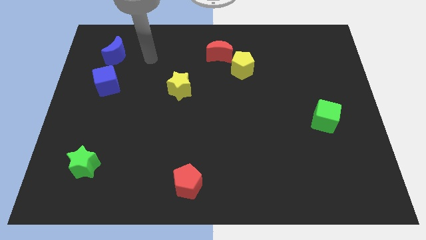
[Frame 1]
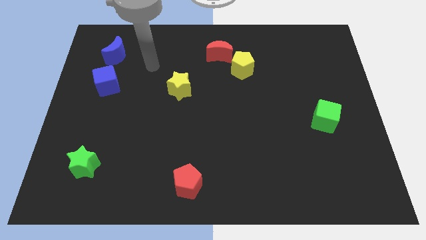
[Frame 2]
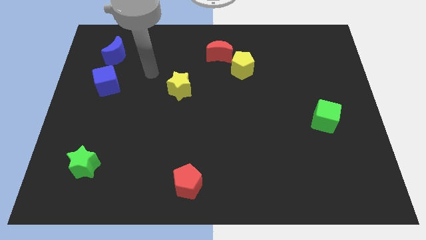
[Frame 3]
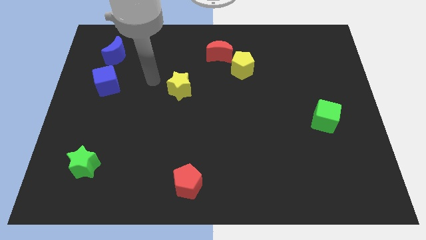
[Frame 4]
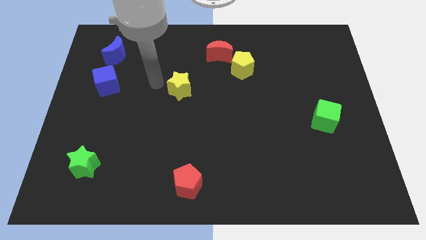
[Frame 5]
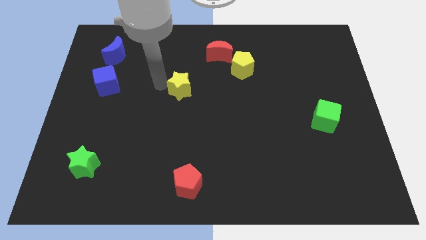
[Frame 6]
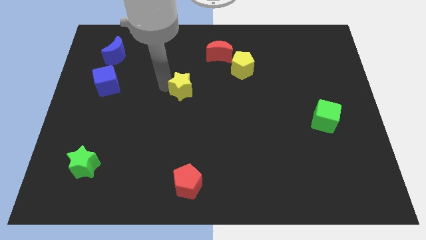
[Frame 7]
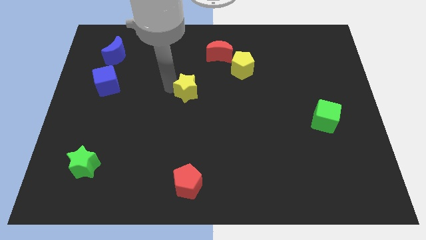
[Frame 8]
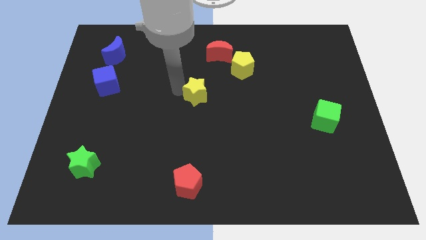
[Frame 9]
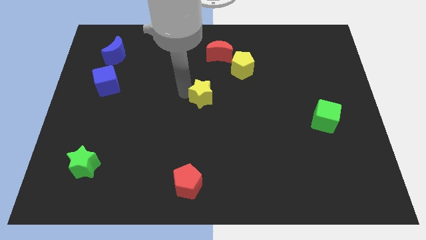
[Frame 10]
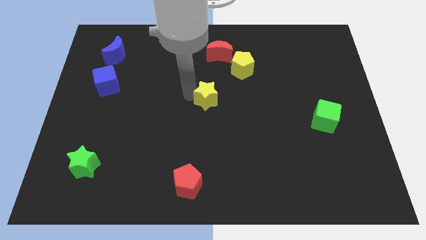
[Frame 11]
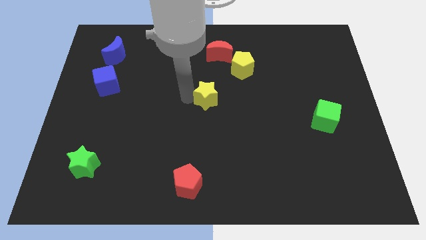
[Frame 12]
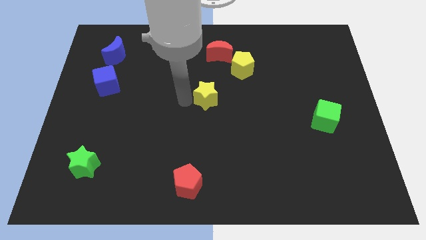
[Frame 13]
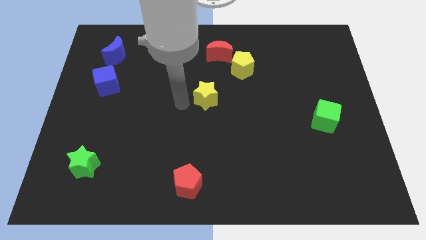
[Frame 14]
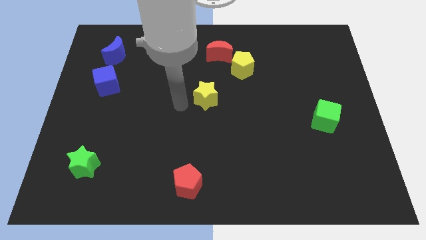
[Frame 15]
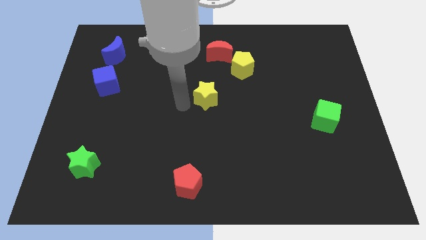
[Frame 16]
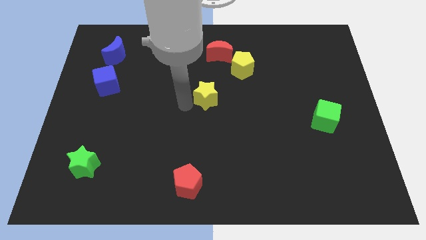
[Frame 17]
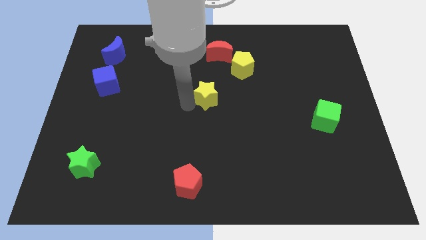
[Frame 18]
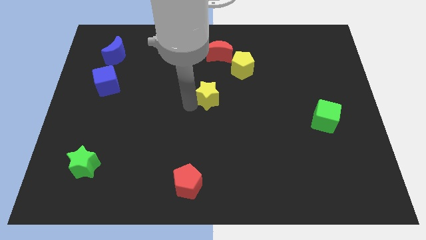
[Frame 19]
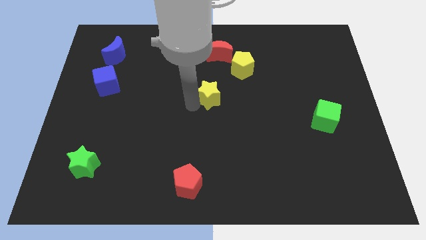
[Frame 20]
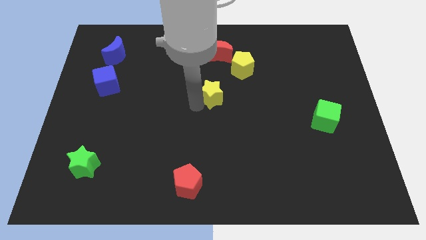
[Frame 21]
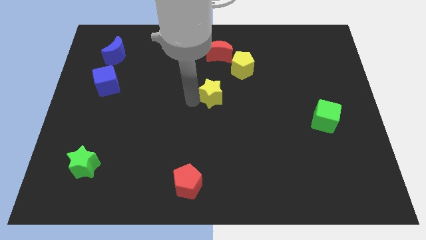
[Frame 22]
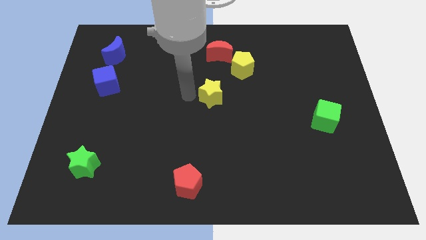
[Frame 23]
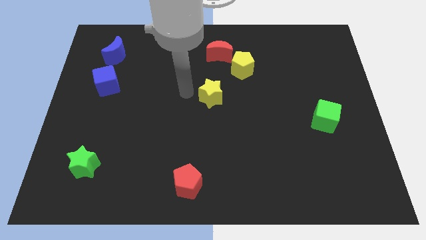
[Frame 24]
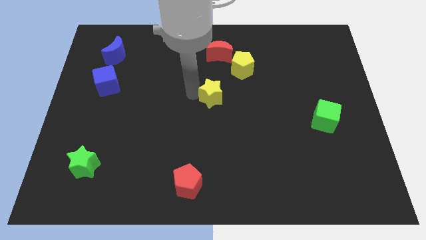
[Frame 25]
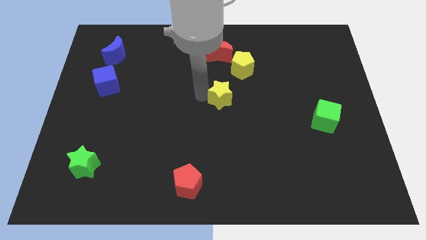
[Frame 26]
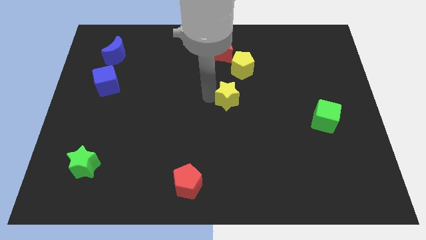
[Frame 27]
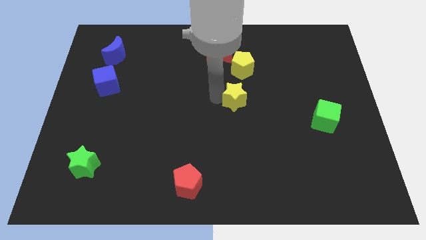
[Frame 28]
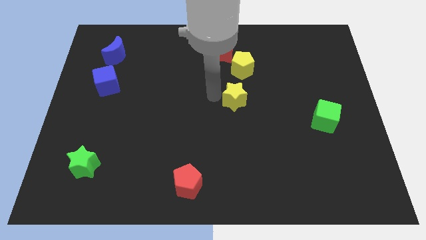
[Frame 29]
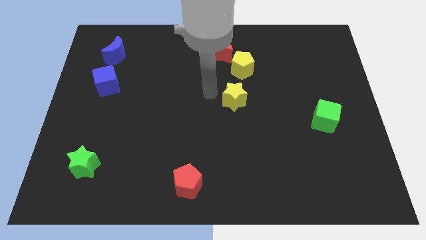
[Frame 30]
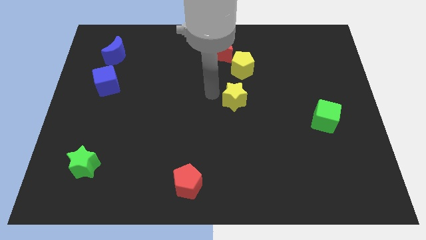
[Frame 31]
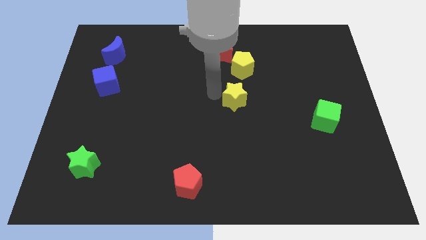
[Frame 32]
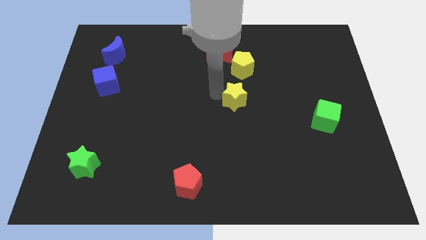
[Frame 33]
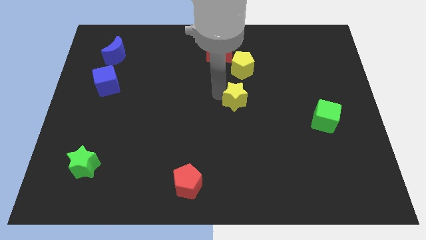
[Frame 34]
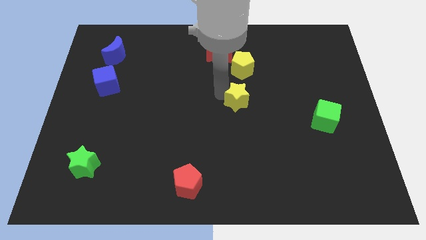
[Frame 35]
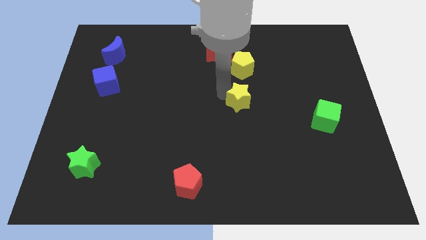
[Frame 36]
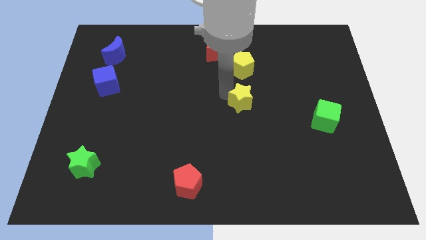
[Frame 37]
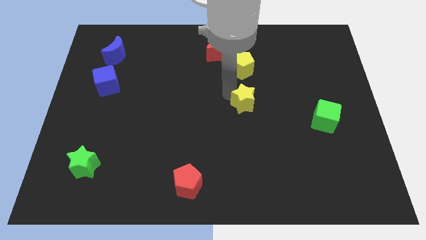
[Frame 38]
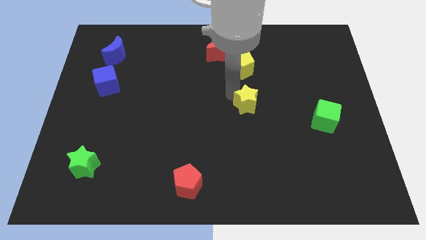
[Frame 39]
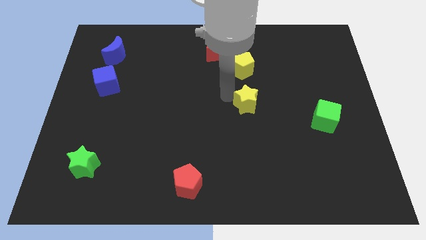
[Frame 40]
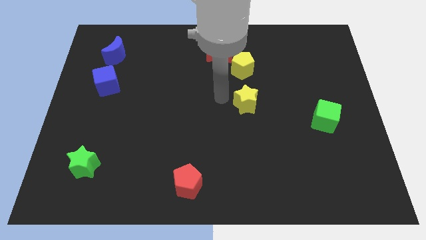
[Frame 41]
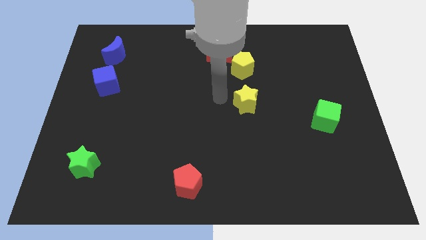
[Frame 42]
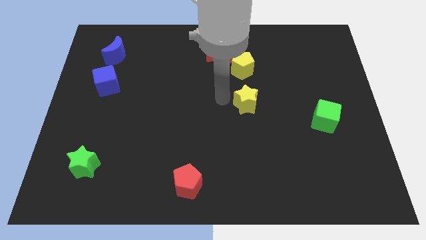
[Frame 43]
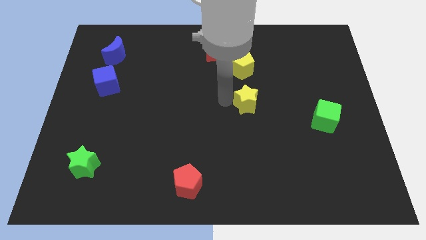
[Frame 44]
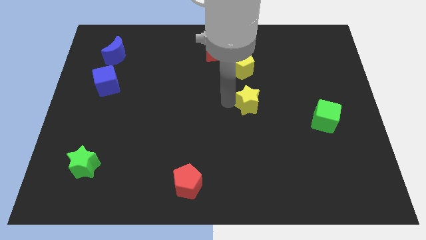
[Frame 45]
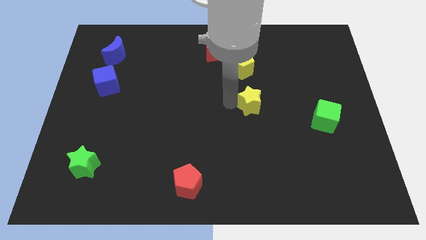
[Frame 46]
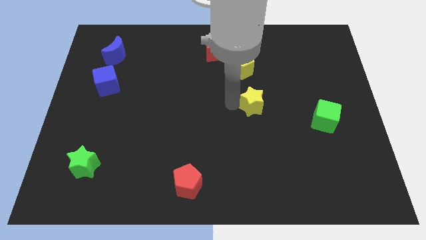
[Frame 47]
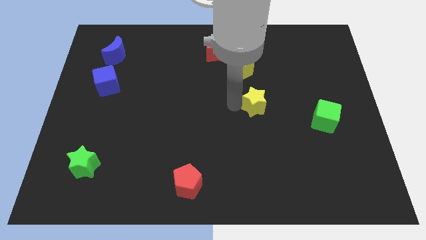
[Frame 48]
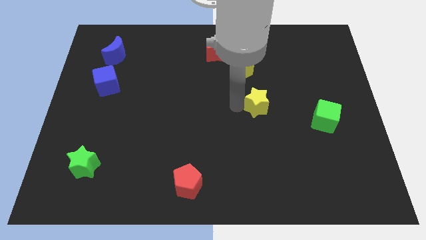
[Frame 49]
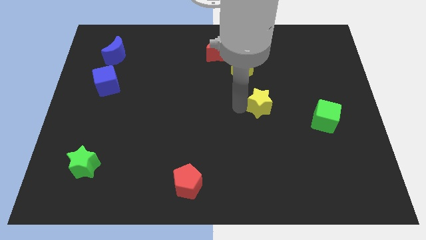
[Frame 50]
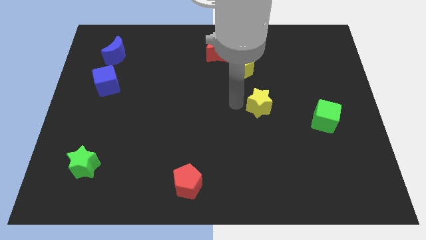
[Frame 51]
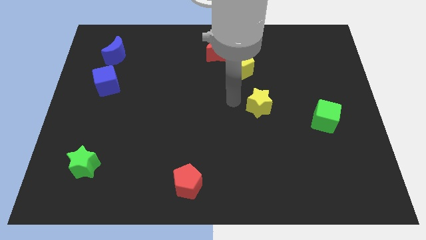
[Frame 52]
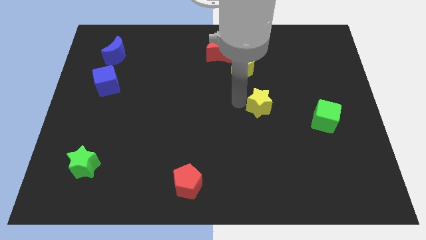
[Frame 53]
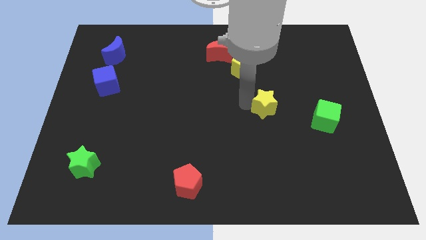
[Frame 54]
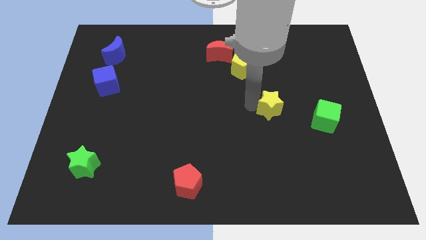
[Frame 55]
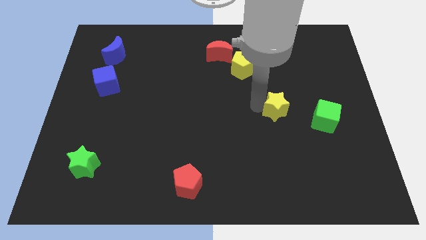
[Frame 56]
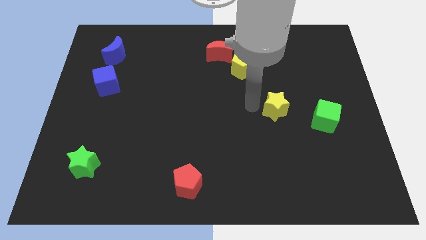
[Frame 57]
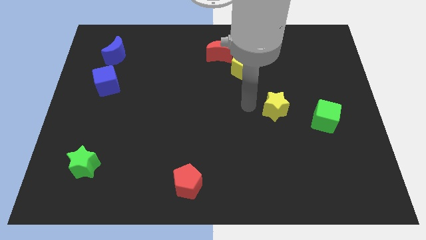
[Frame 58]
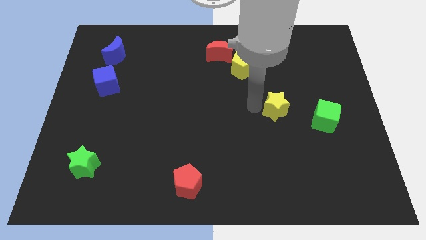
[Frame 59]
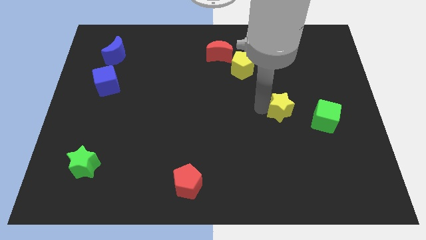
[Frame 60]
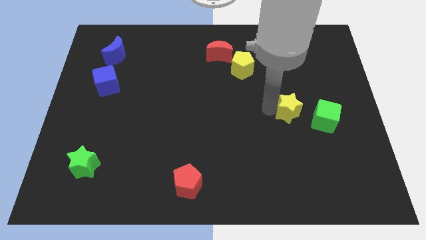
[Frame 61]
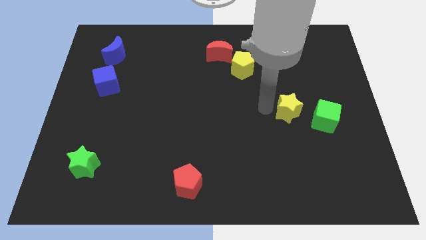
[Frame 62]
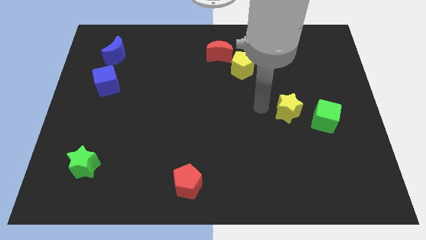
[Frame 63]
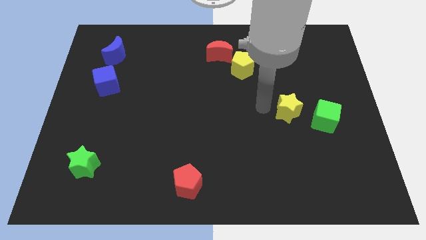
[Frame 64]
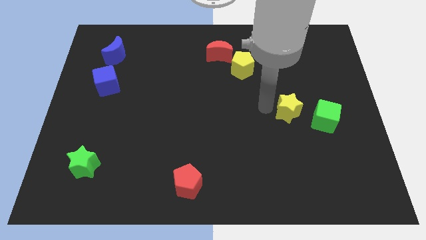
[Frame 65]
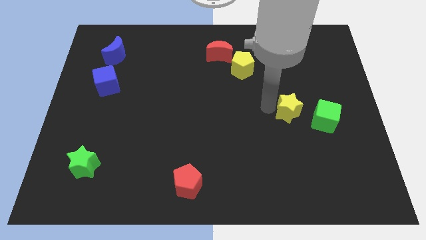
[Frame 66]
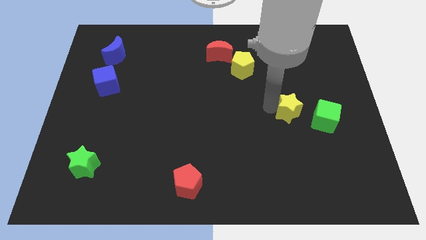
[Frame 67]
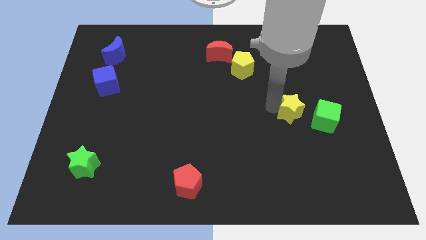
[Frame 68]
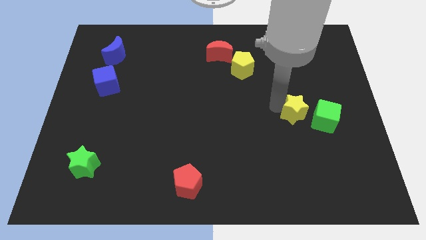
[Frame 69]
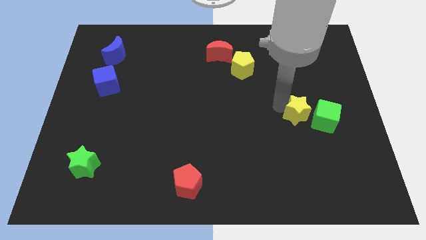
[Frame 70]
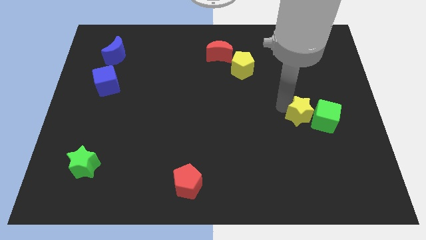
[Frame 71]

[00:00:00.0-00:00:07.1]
put the yellow star towards the green cube

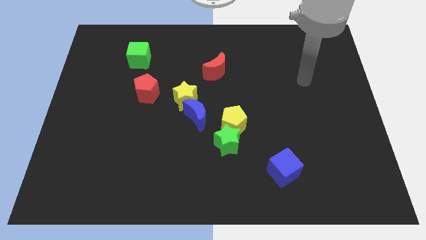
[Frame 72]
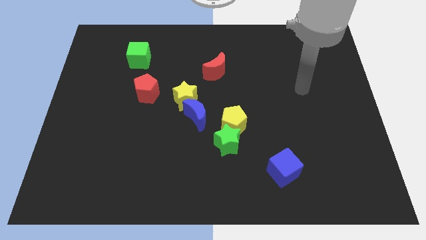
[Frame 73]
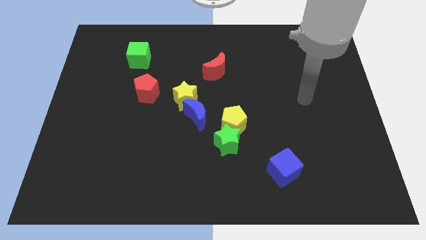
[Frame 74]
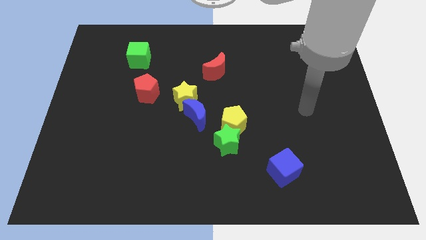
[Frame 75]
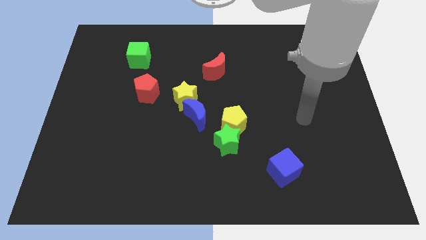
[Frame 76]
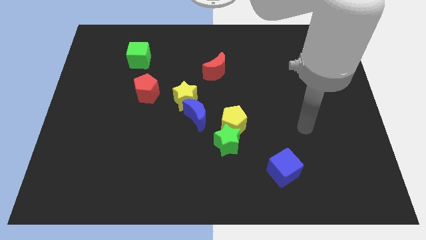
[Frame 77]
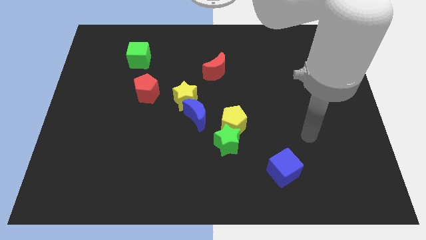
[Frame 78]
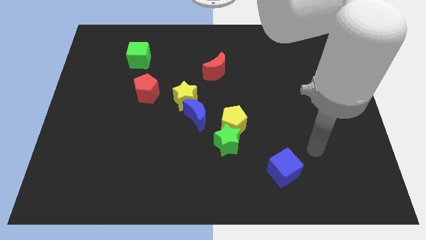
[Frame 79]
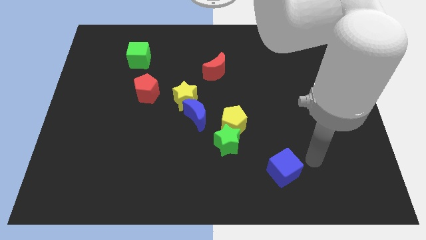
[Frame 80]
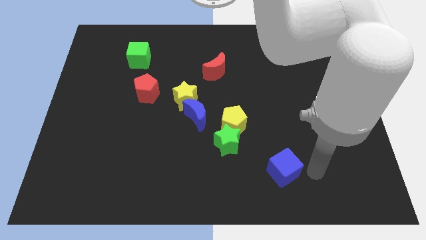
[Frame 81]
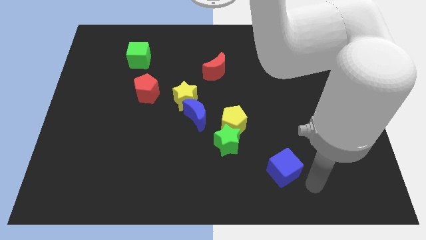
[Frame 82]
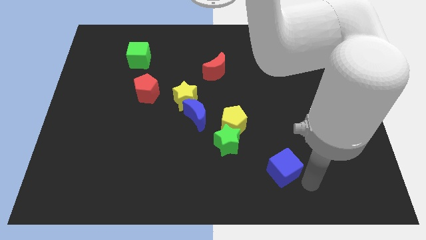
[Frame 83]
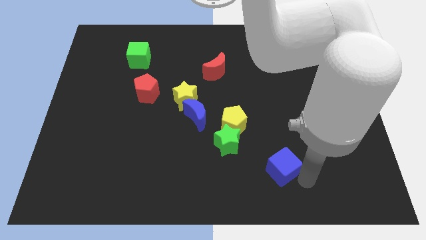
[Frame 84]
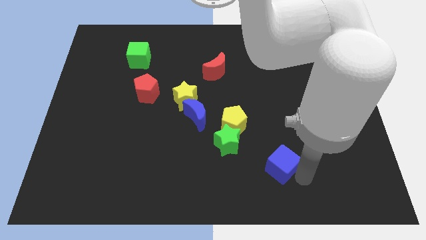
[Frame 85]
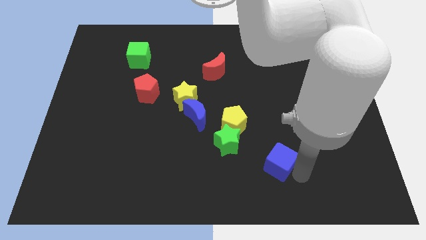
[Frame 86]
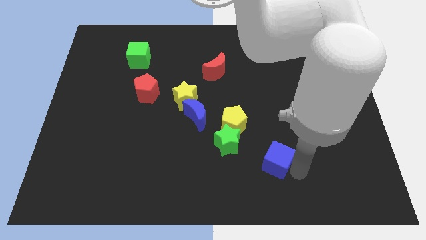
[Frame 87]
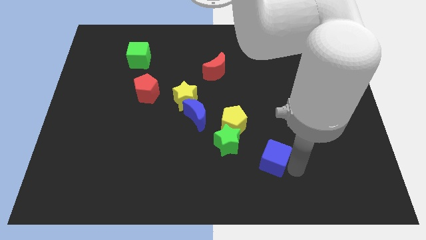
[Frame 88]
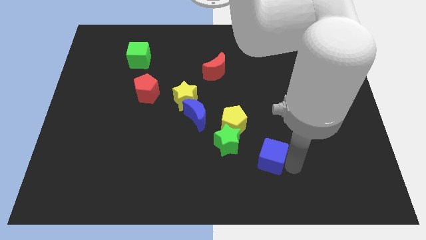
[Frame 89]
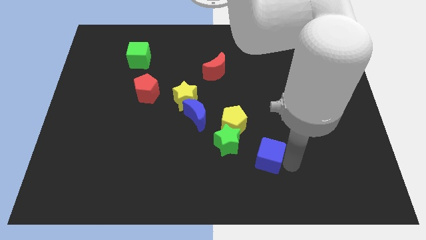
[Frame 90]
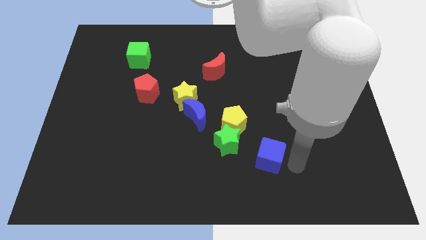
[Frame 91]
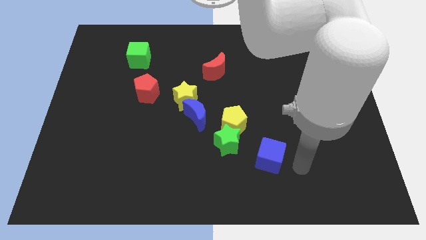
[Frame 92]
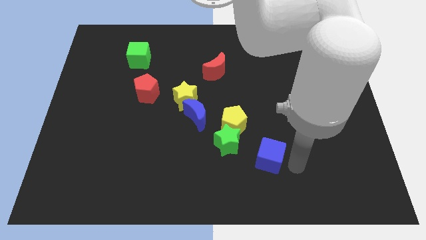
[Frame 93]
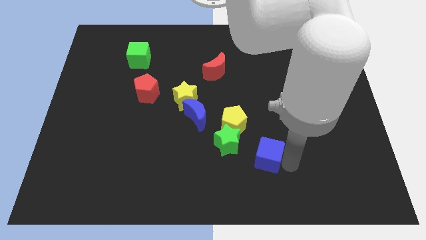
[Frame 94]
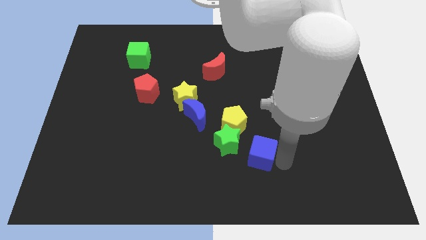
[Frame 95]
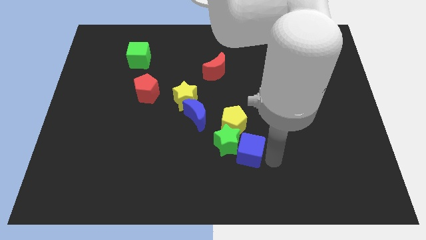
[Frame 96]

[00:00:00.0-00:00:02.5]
move the blue cube close to the green star
